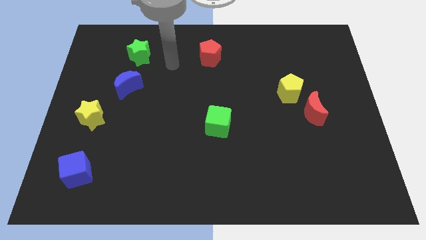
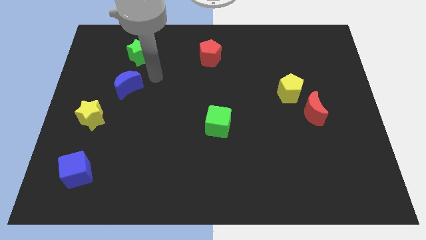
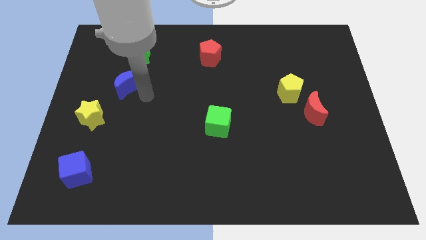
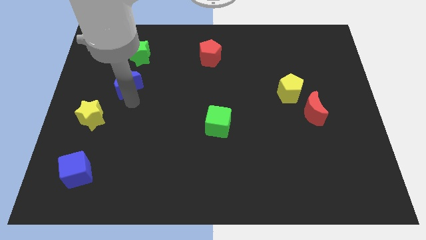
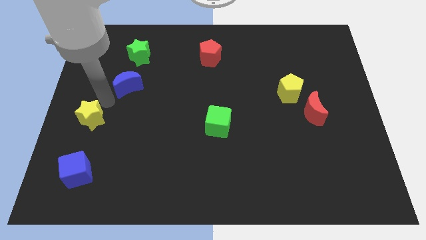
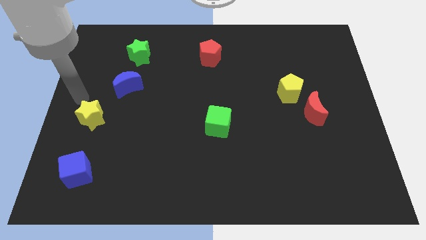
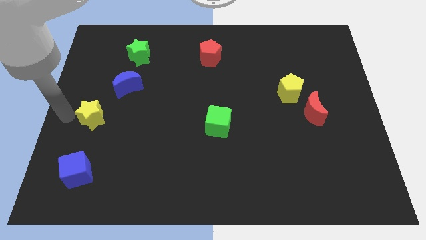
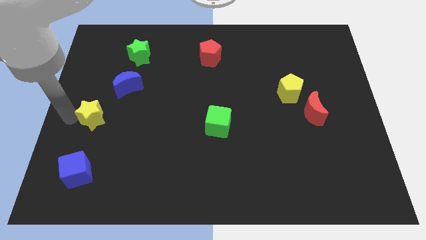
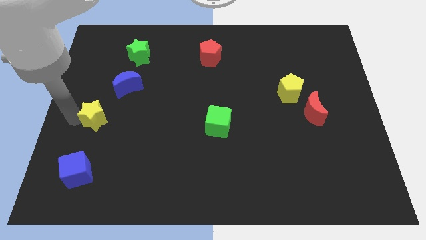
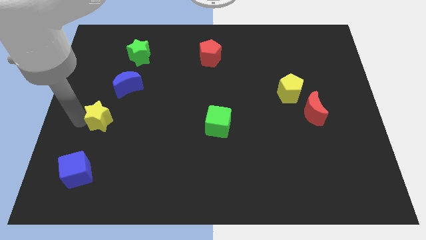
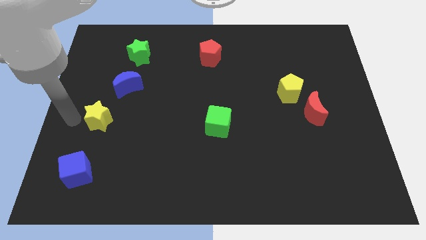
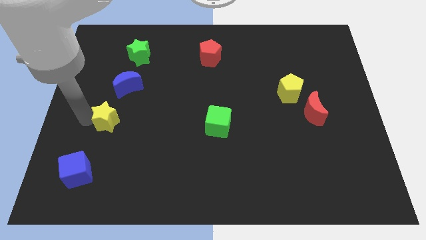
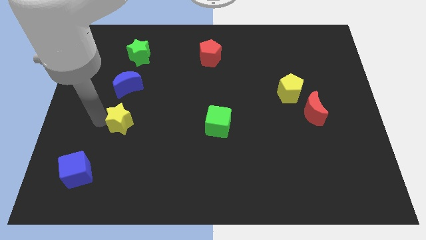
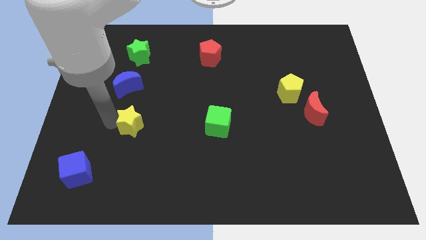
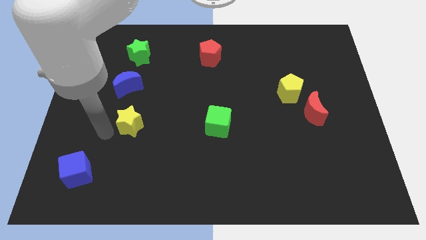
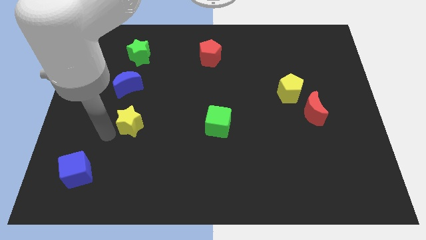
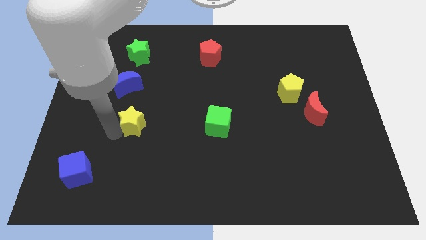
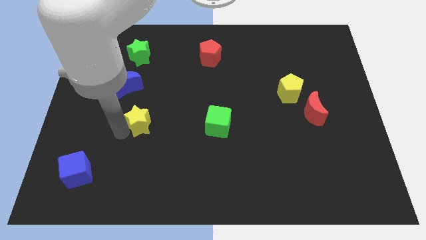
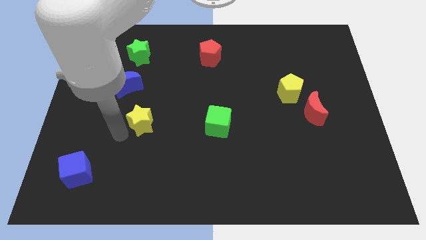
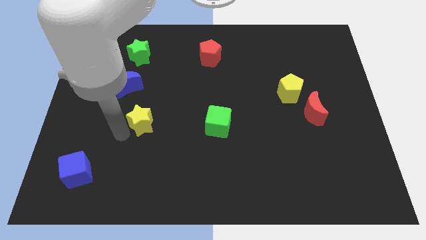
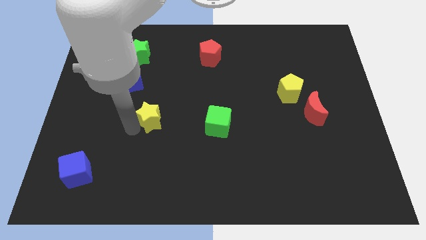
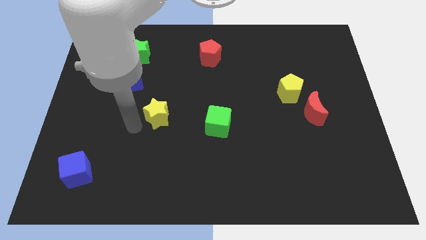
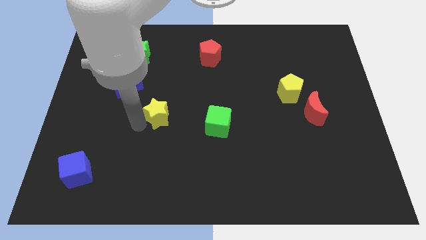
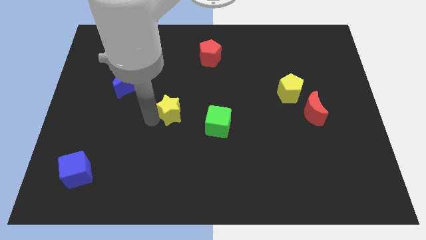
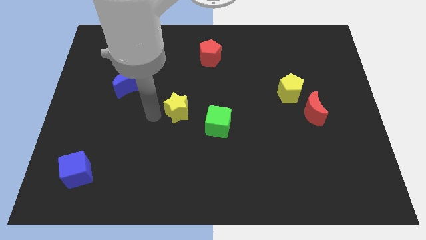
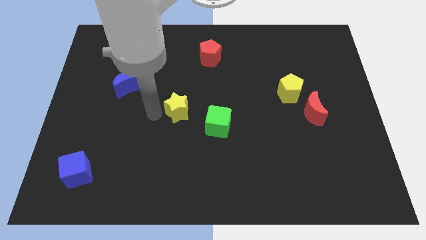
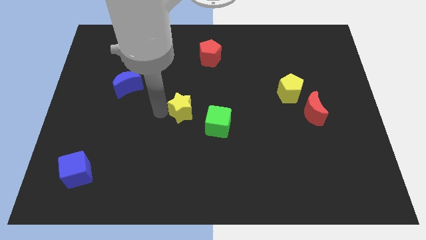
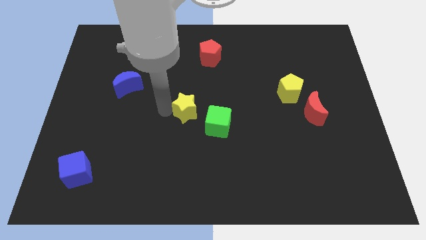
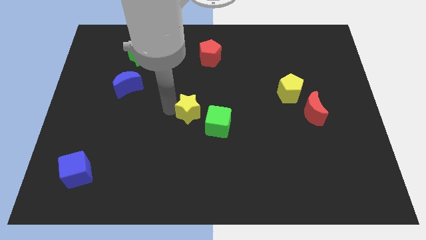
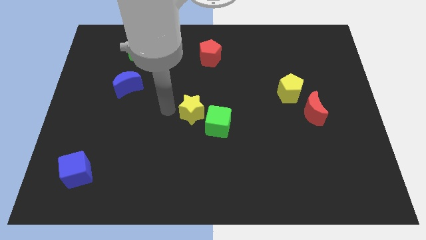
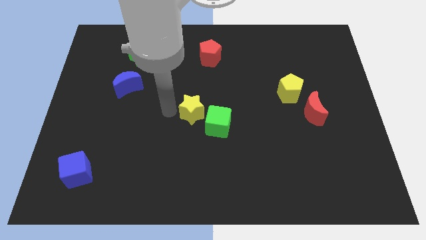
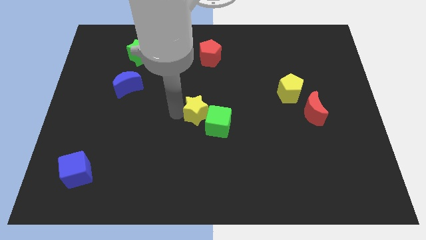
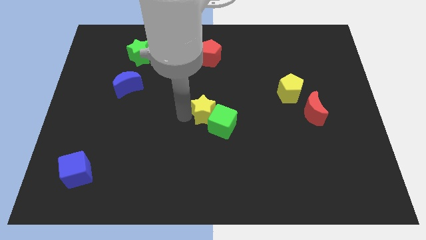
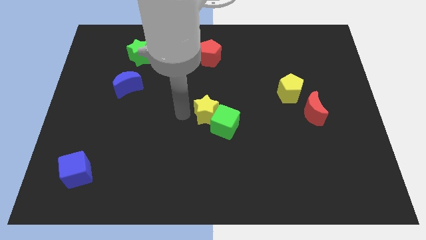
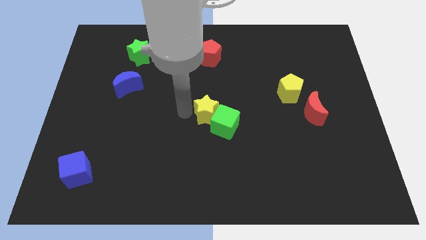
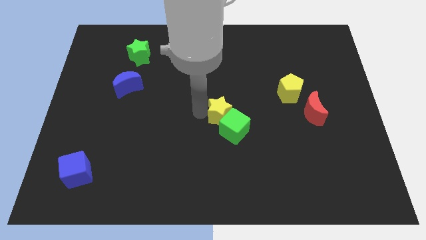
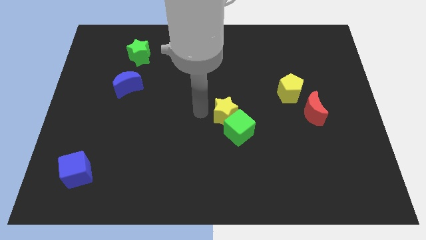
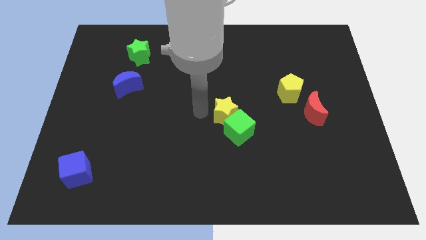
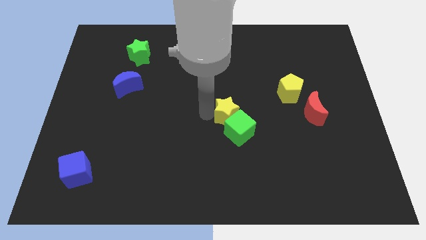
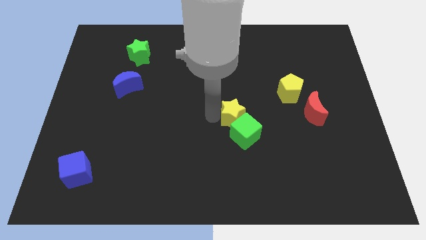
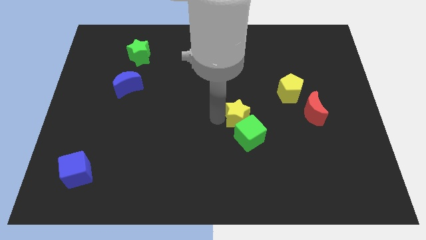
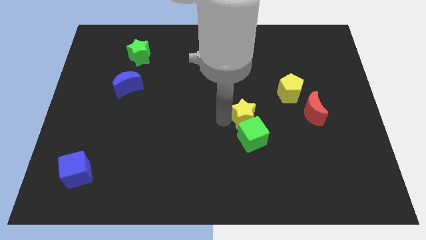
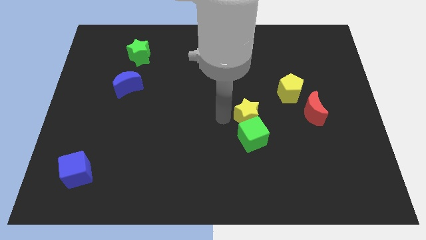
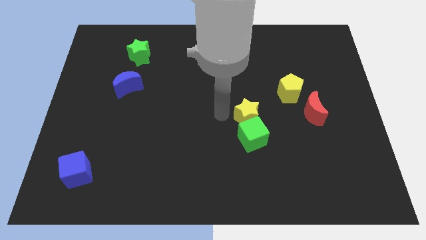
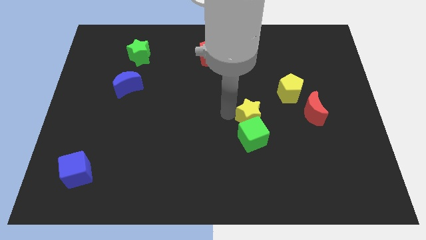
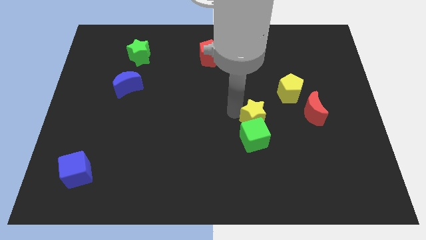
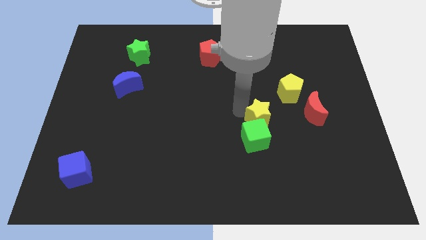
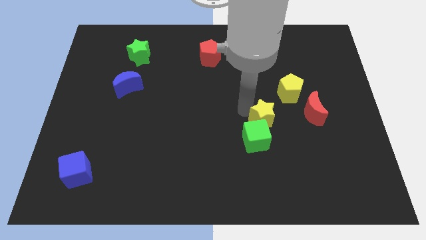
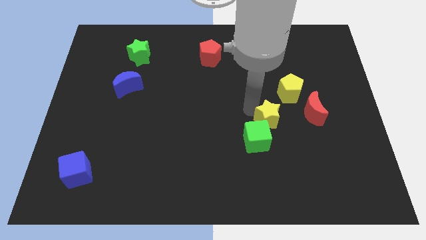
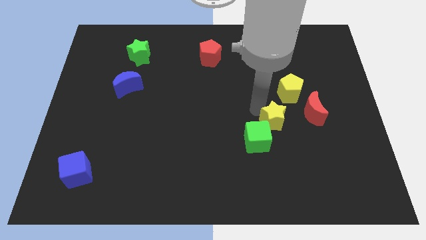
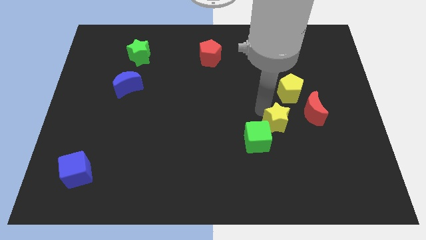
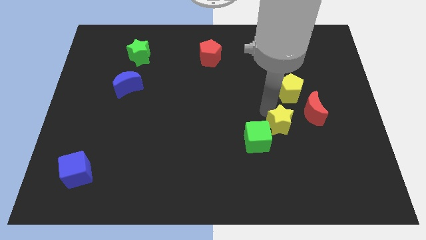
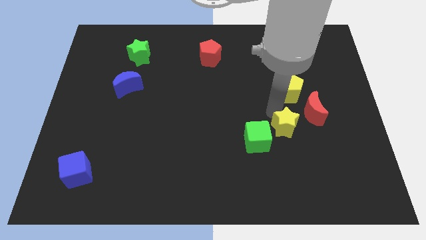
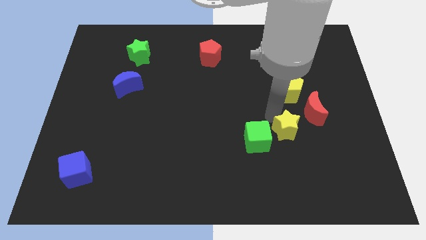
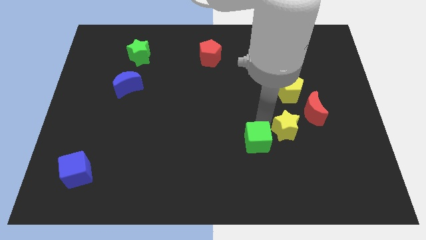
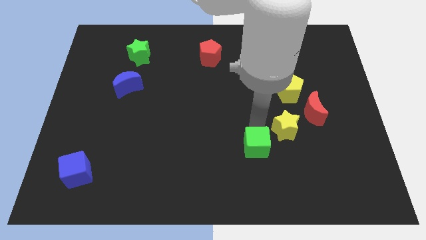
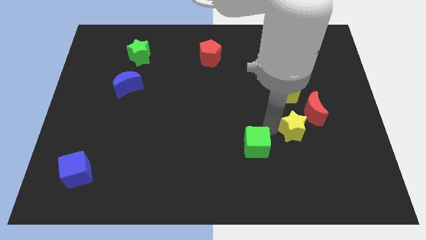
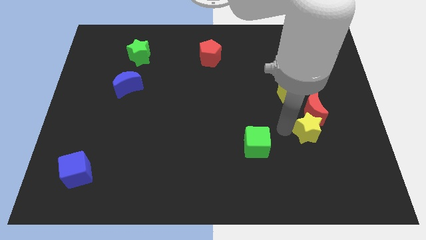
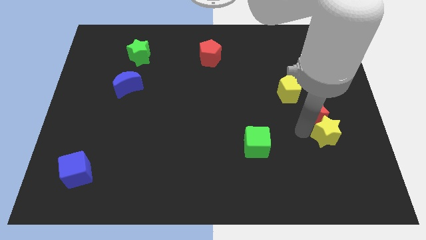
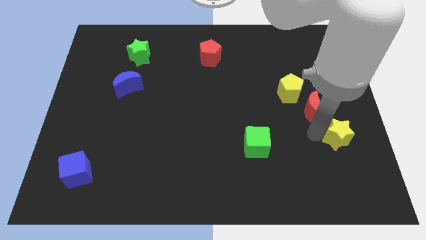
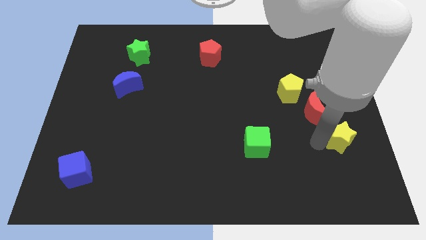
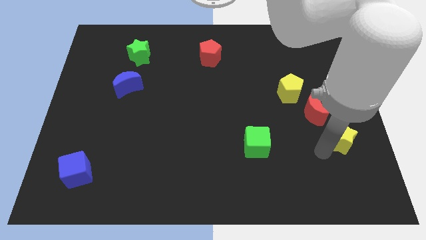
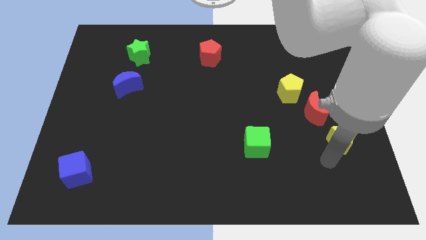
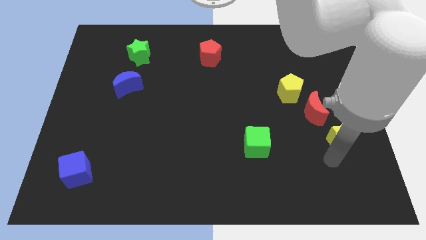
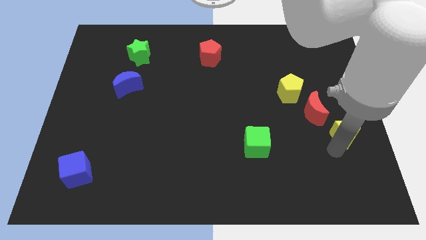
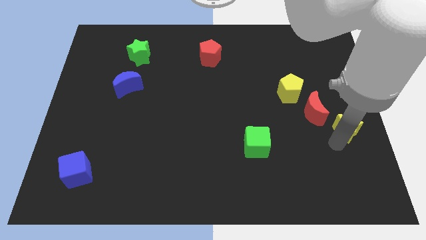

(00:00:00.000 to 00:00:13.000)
push the yellow star to the right side
